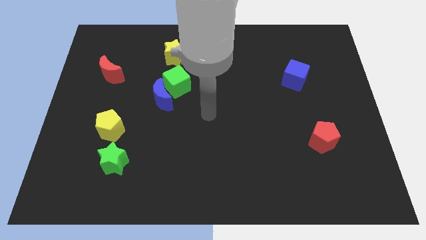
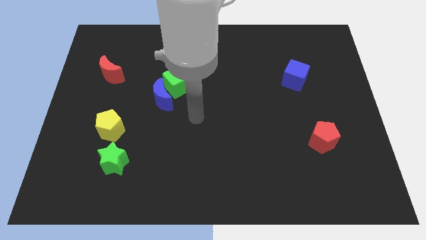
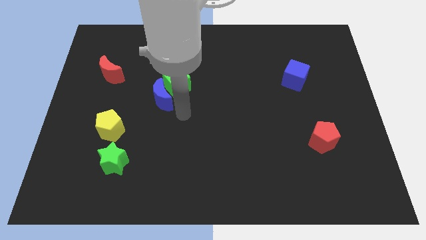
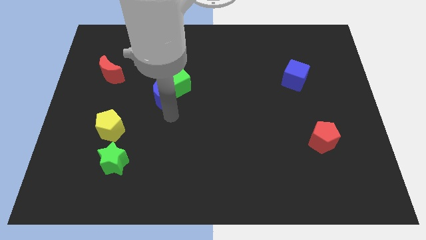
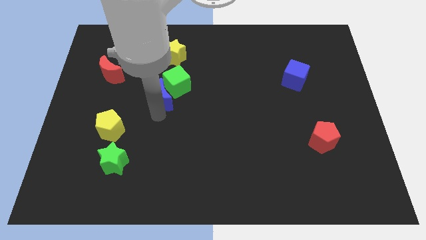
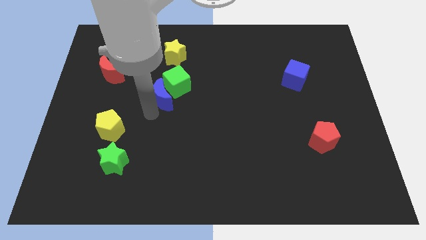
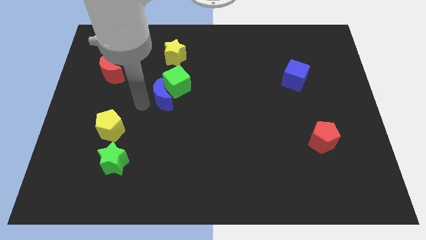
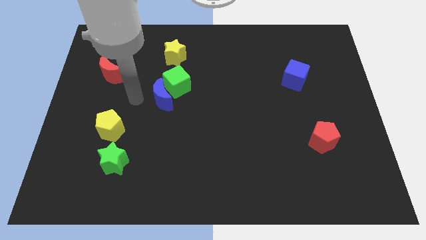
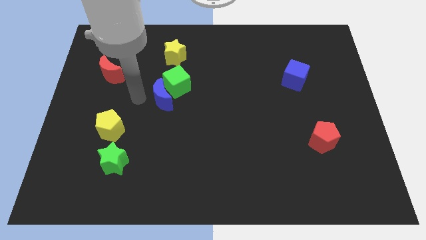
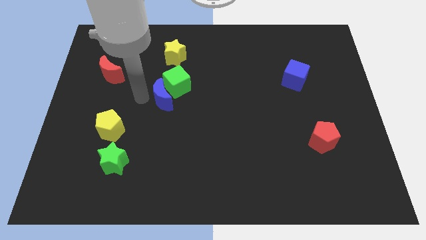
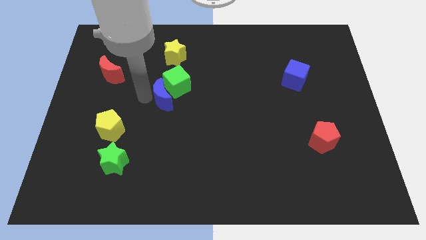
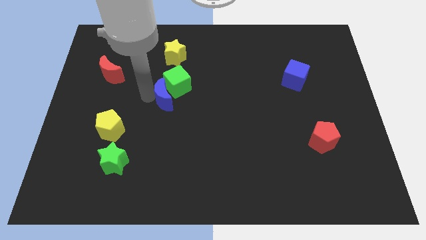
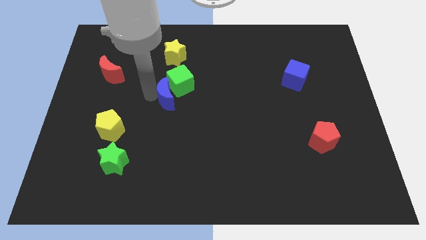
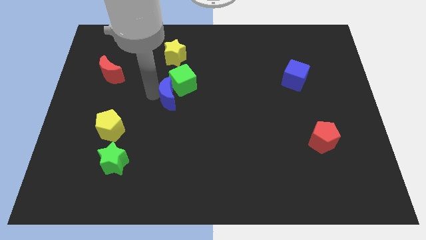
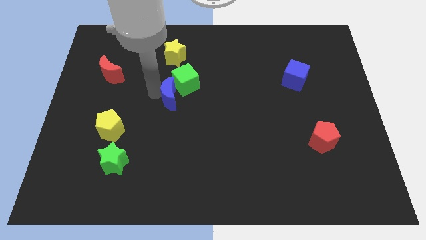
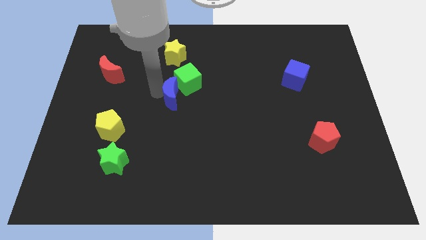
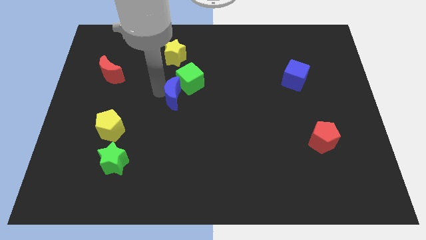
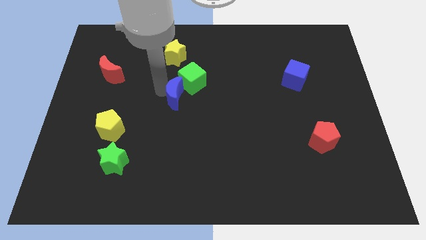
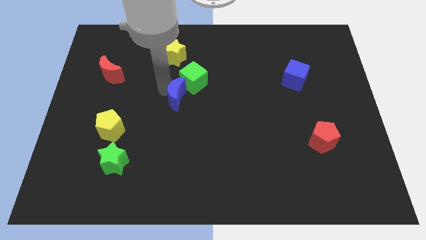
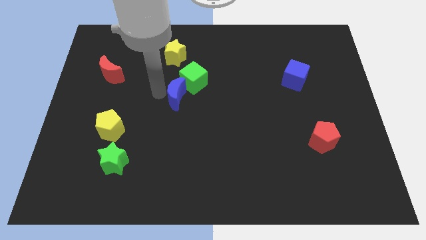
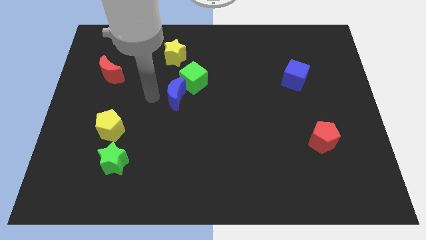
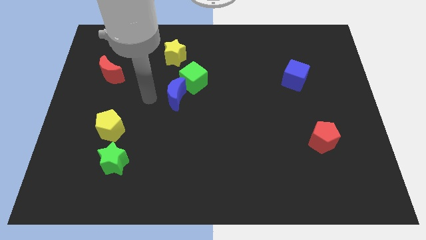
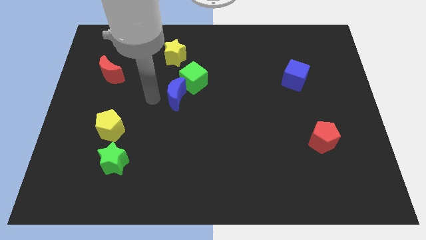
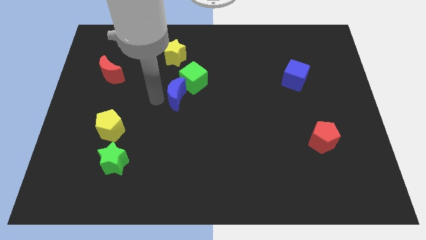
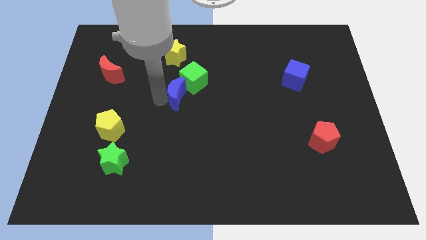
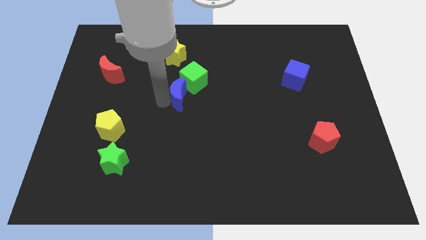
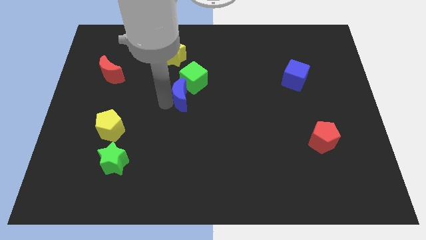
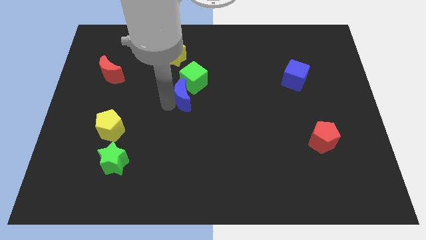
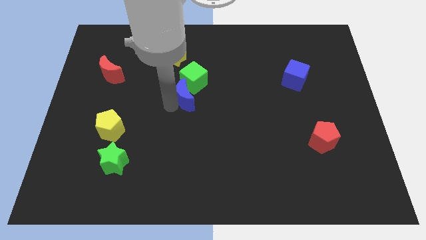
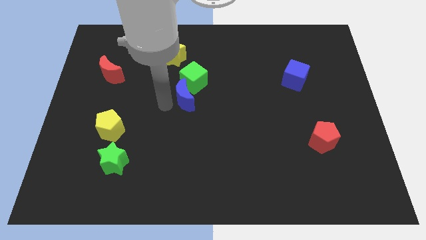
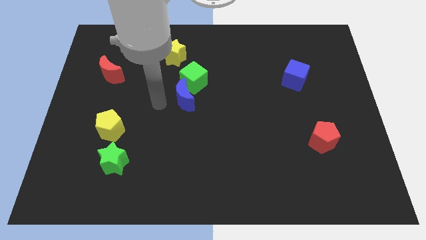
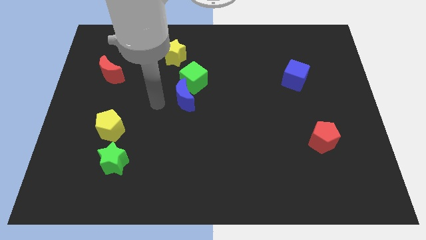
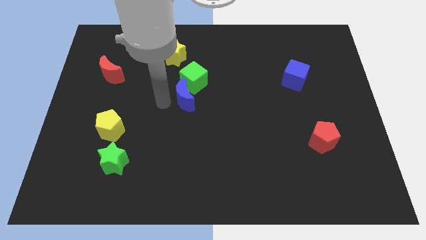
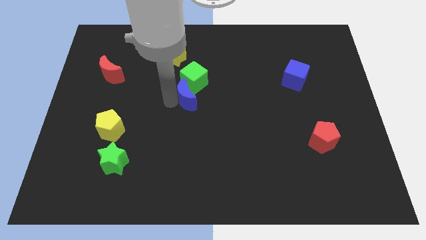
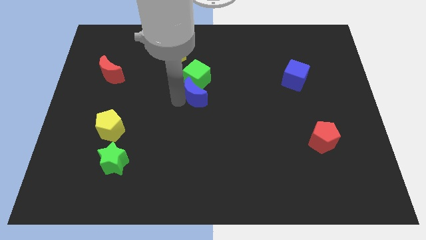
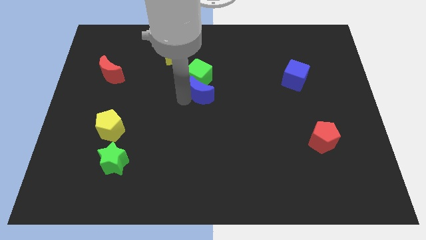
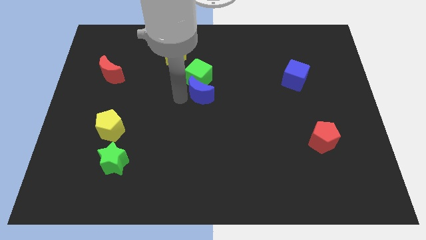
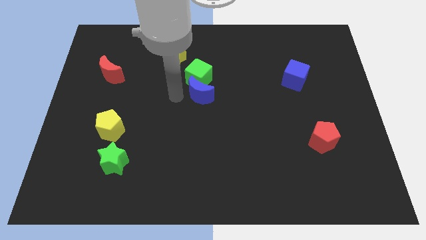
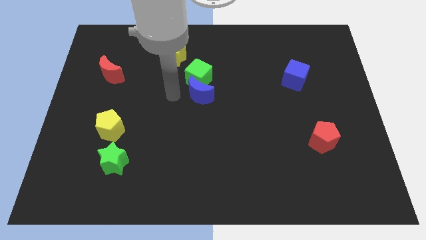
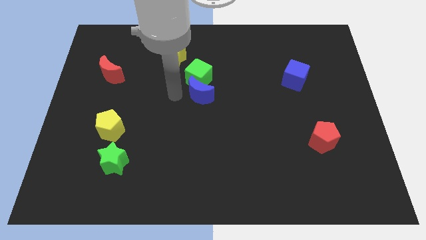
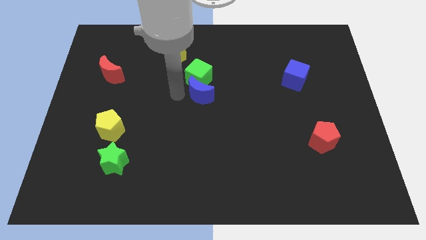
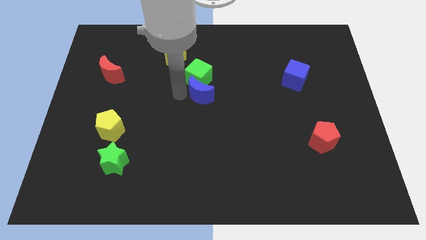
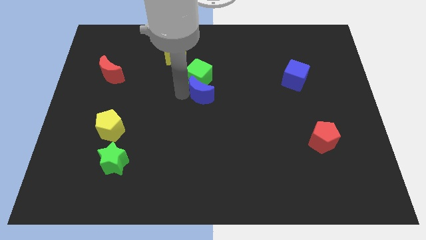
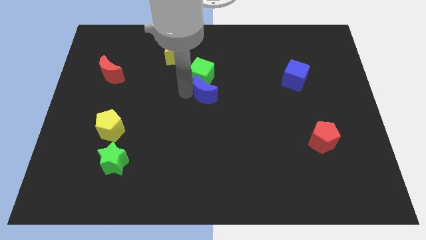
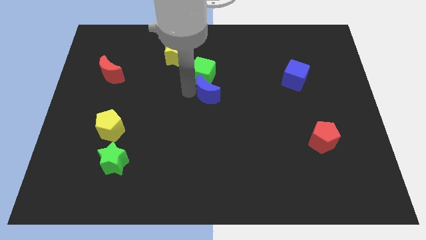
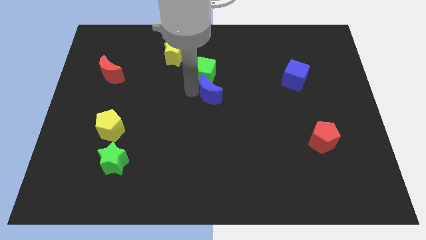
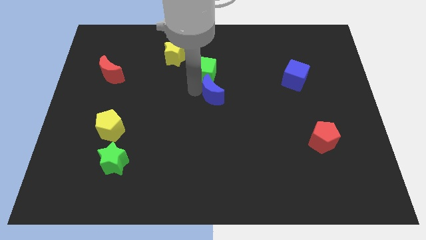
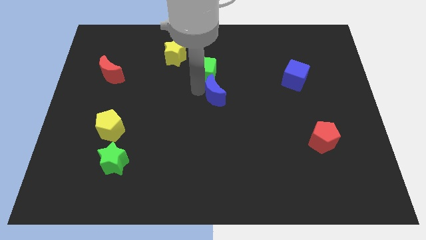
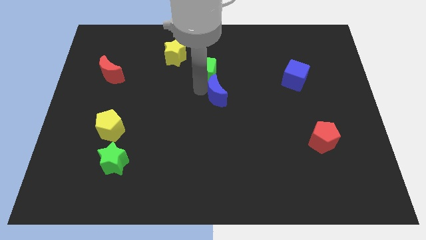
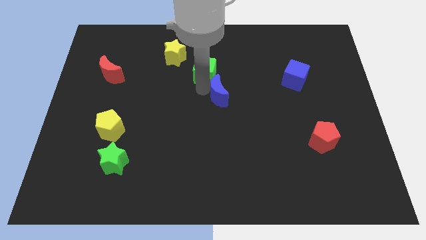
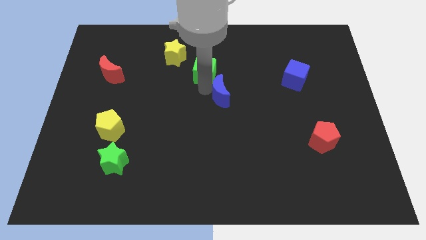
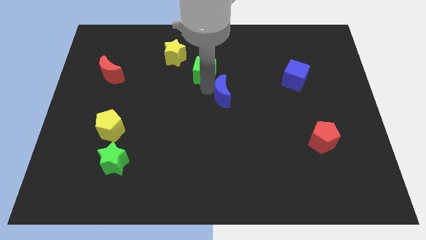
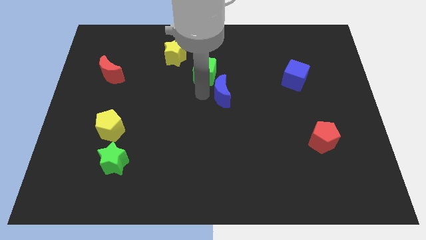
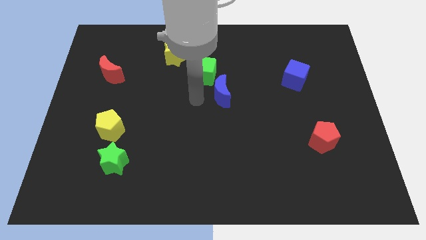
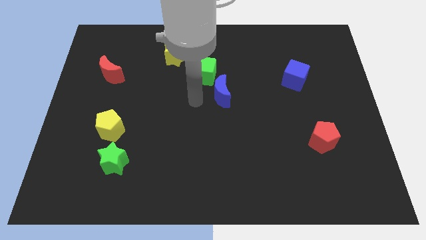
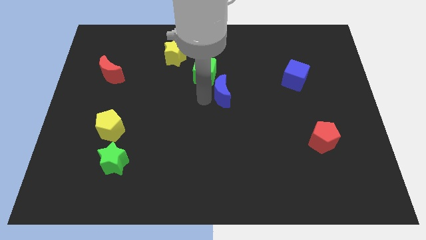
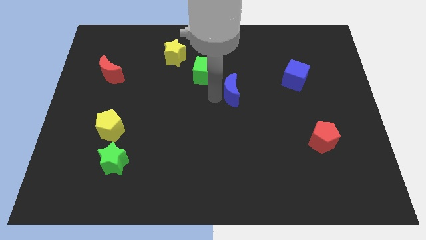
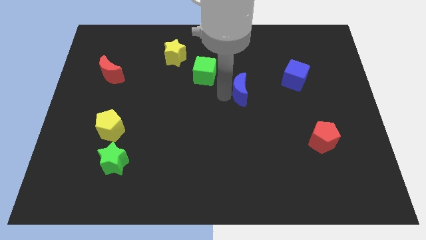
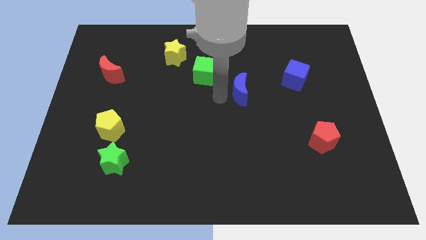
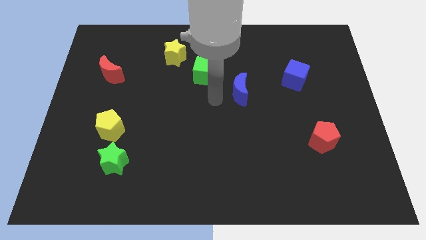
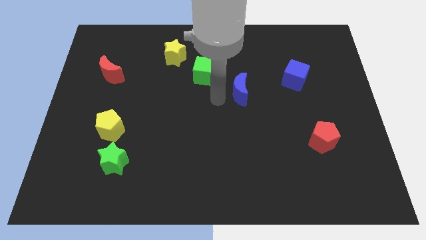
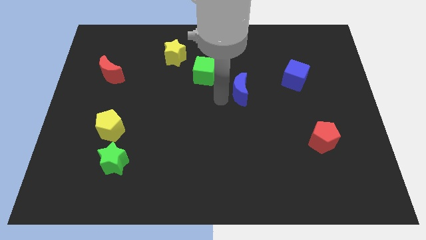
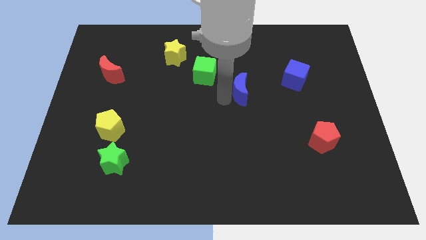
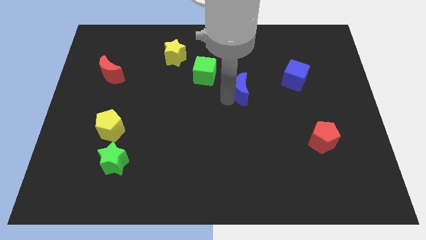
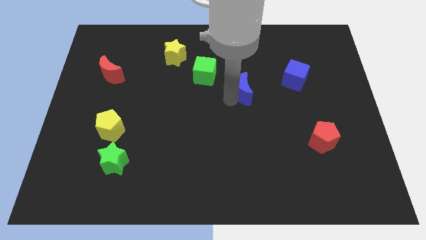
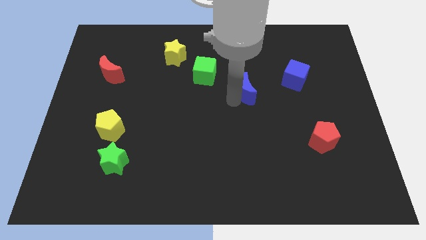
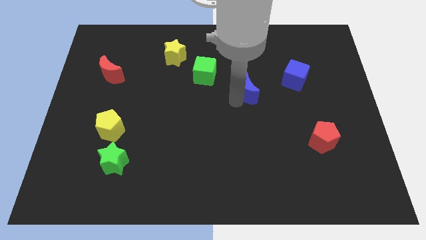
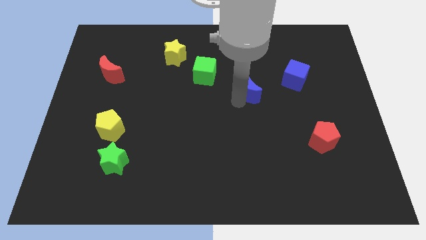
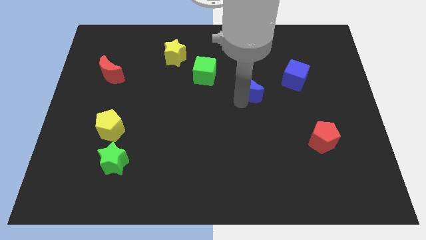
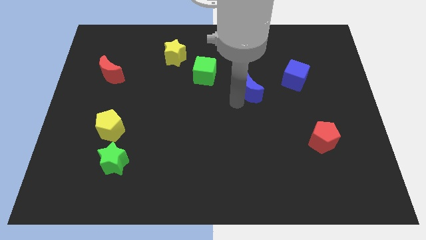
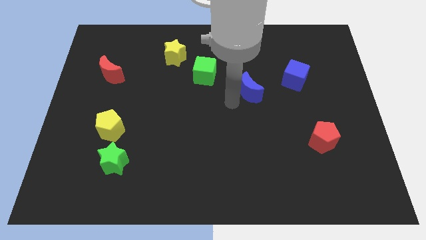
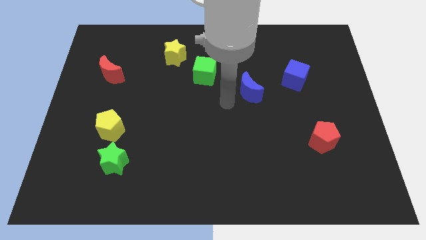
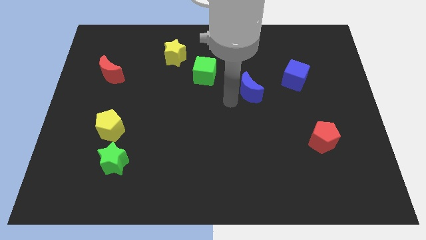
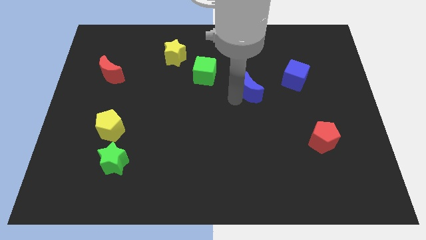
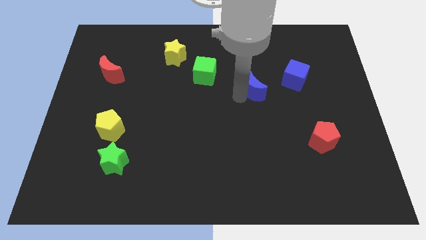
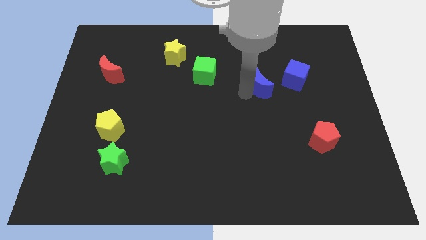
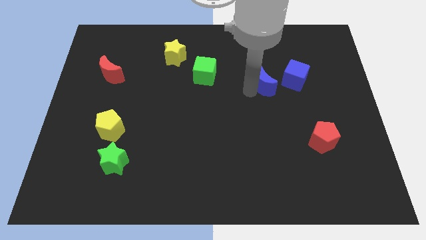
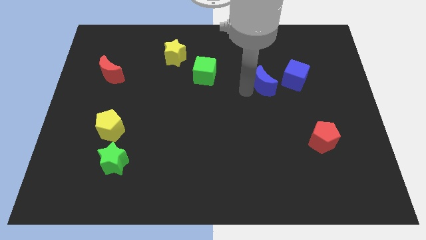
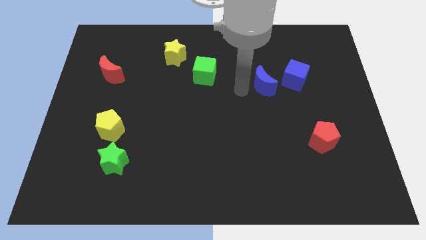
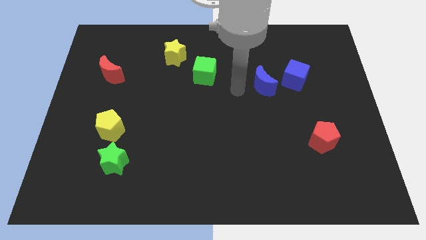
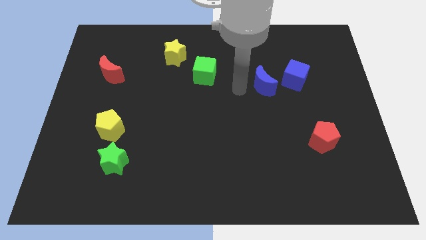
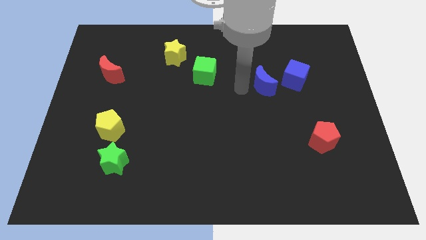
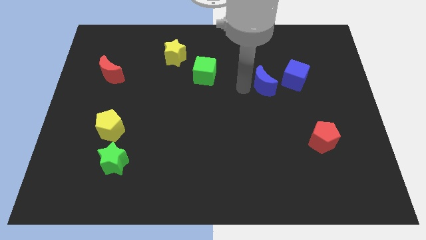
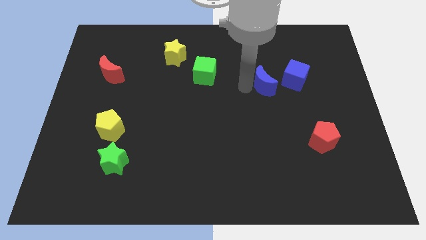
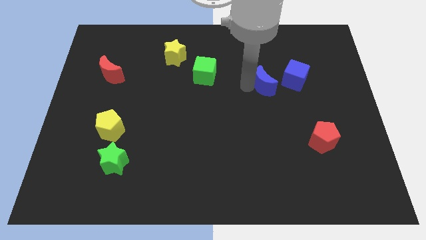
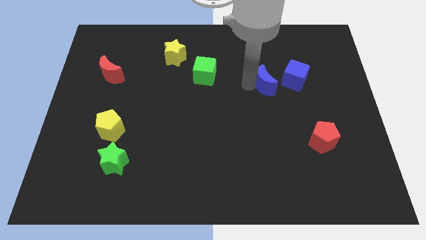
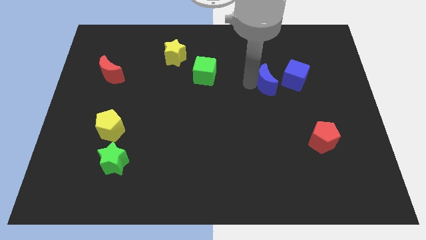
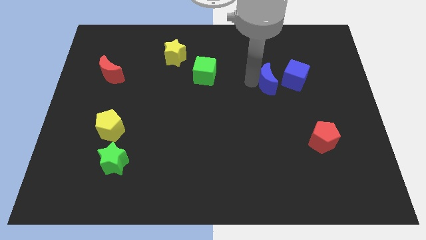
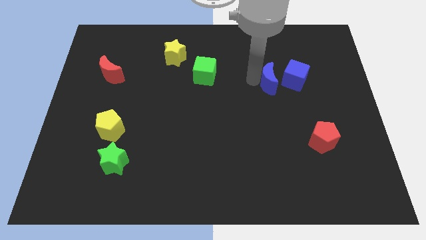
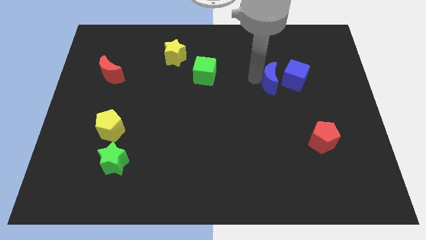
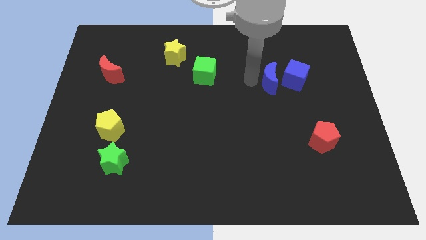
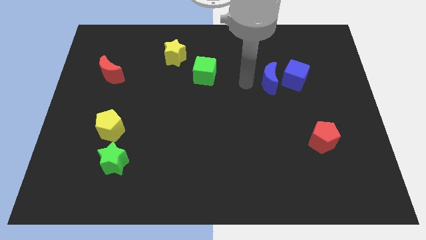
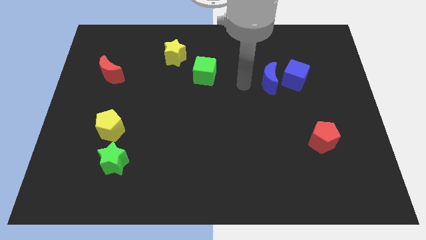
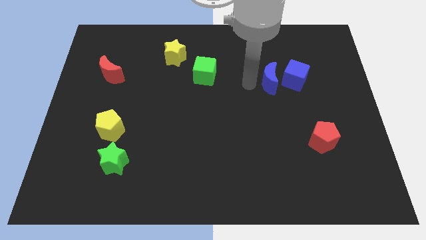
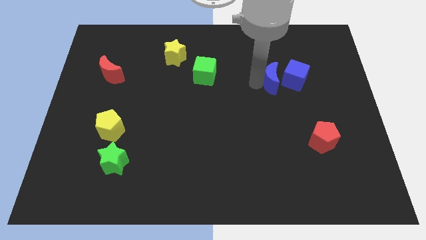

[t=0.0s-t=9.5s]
move the blue moon close to the blue cube
